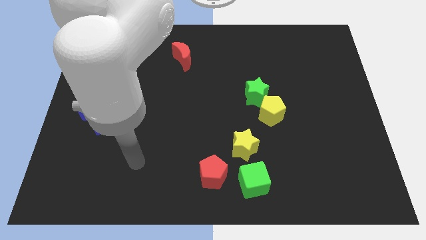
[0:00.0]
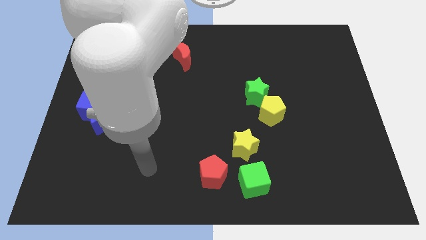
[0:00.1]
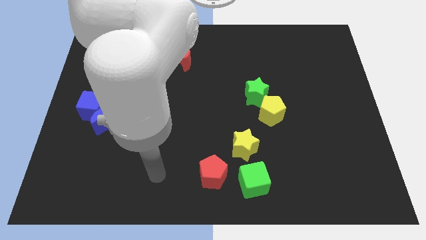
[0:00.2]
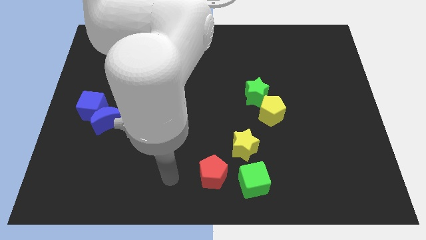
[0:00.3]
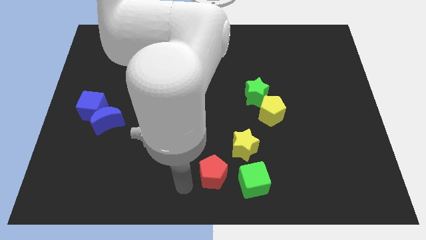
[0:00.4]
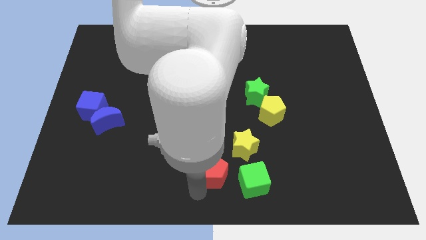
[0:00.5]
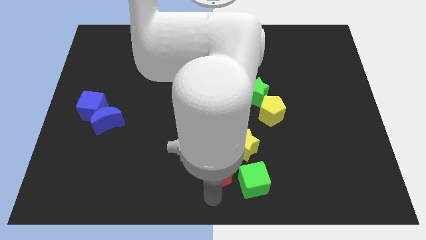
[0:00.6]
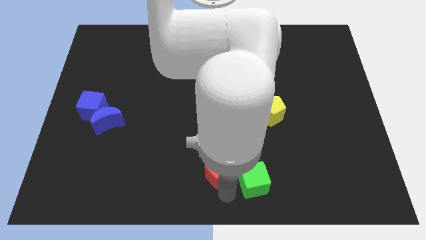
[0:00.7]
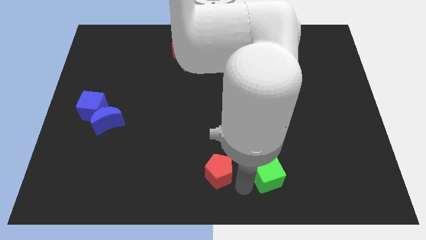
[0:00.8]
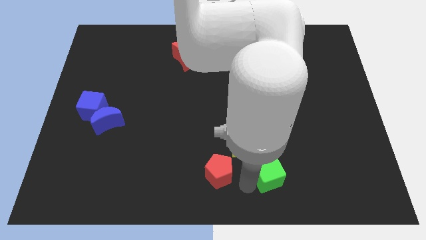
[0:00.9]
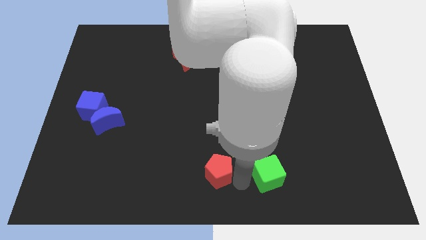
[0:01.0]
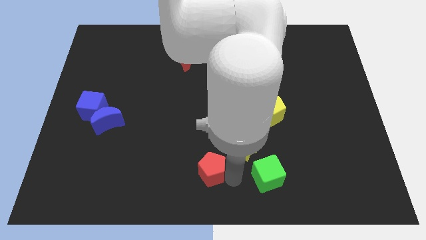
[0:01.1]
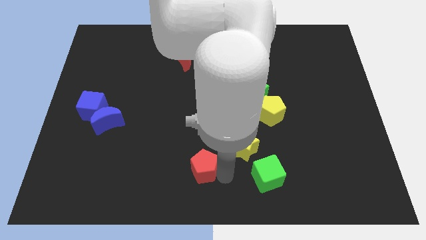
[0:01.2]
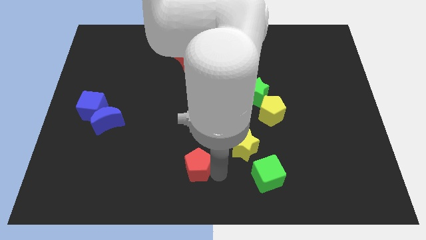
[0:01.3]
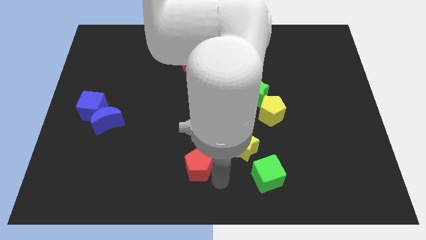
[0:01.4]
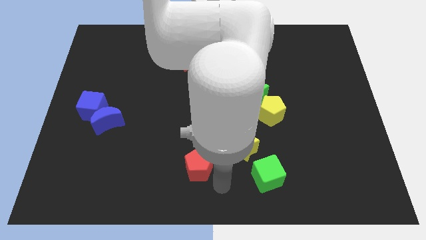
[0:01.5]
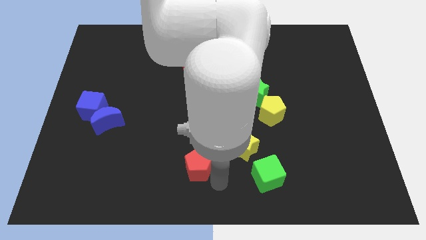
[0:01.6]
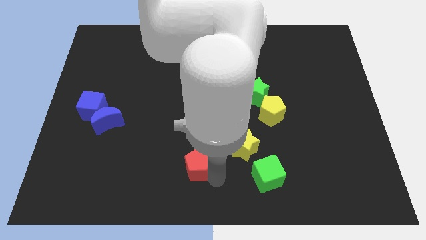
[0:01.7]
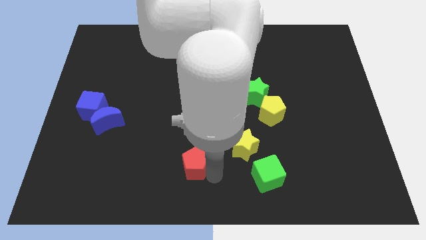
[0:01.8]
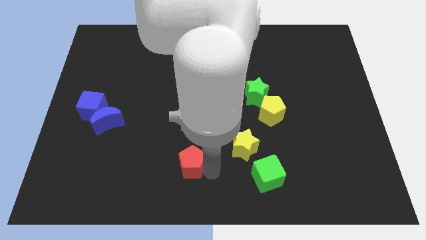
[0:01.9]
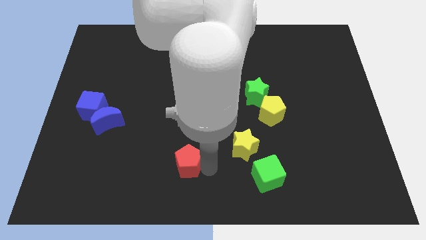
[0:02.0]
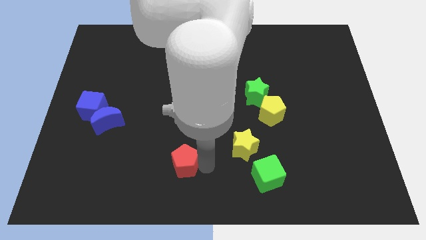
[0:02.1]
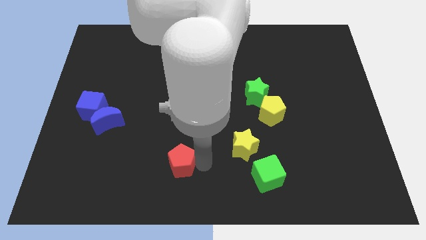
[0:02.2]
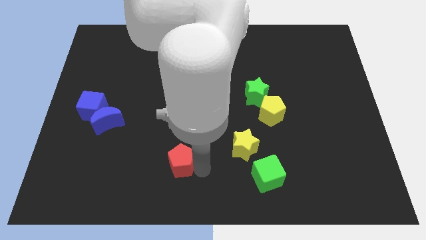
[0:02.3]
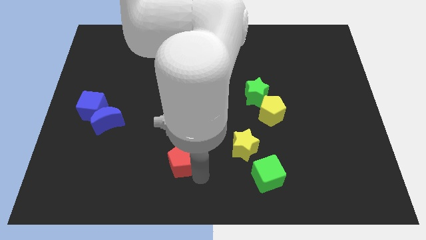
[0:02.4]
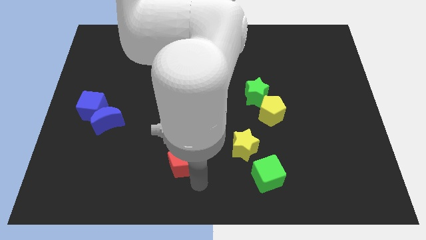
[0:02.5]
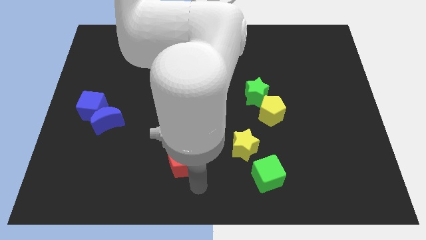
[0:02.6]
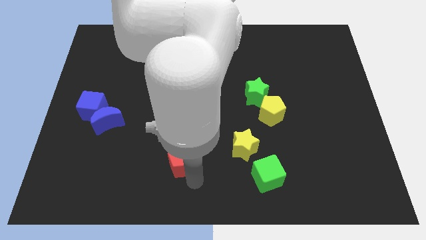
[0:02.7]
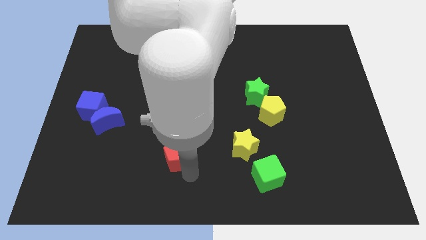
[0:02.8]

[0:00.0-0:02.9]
push the red pentagon a bit upwards and then to the left

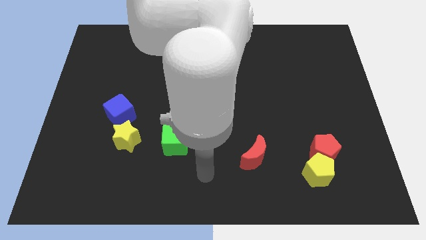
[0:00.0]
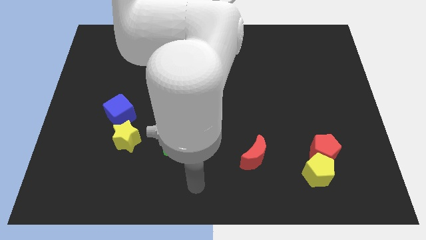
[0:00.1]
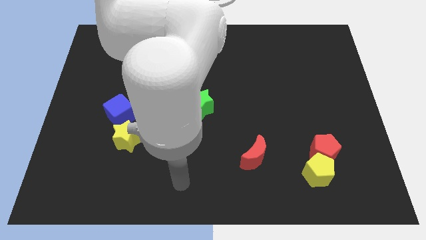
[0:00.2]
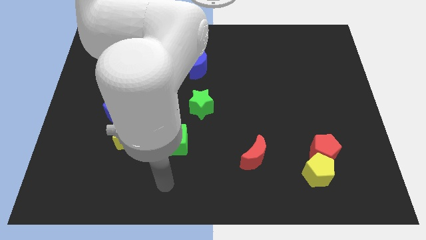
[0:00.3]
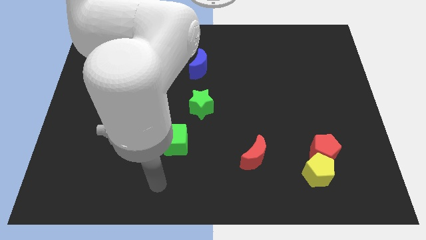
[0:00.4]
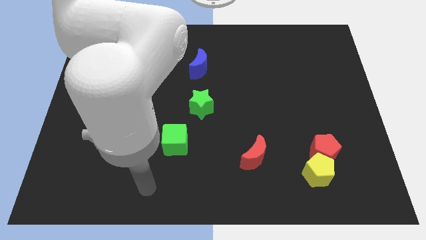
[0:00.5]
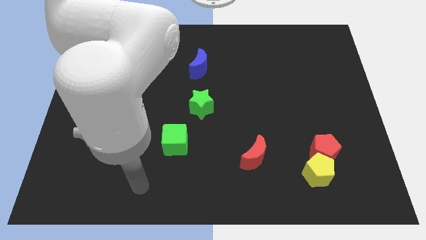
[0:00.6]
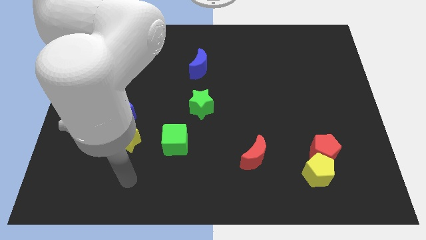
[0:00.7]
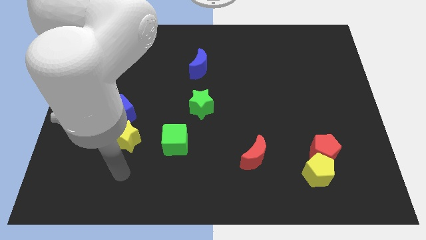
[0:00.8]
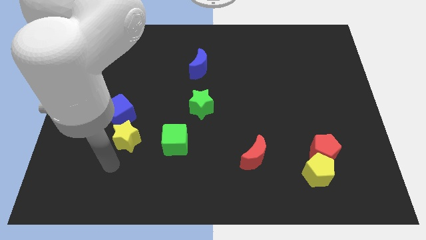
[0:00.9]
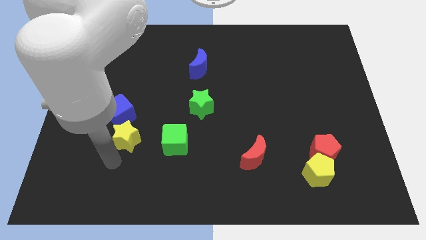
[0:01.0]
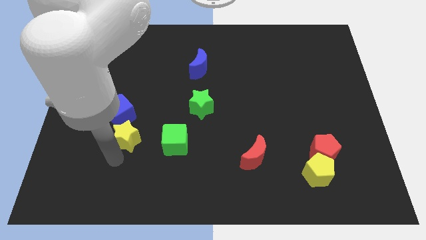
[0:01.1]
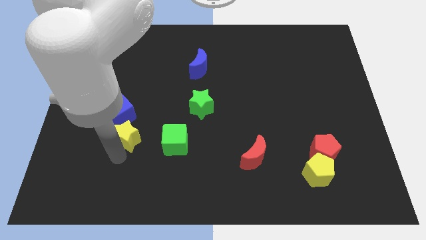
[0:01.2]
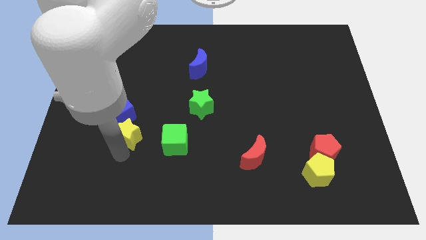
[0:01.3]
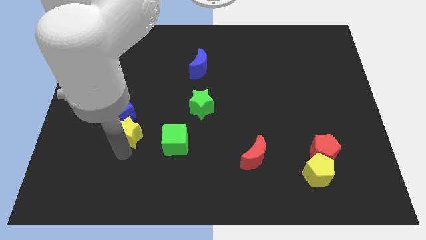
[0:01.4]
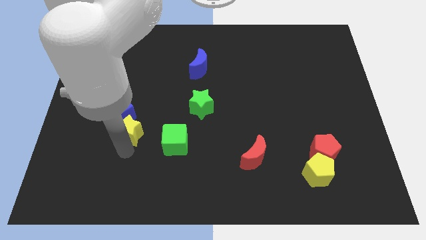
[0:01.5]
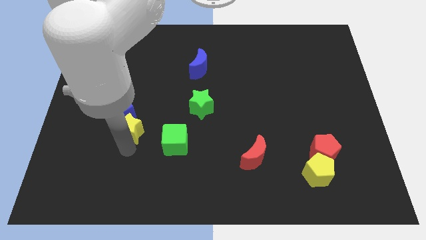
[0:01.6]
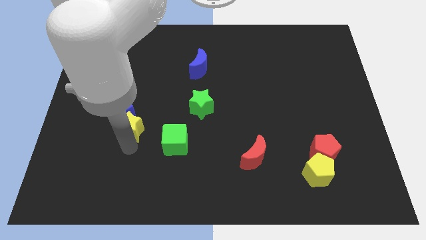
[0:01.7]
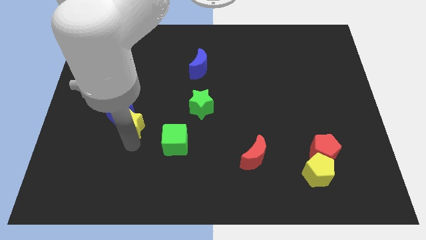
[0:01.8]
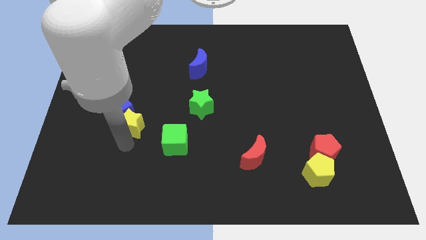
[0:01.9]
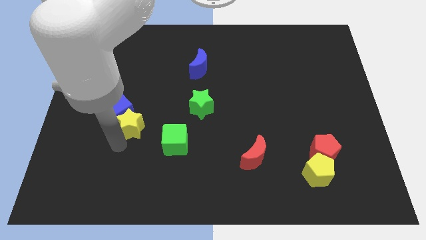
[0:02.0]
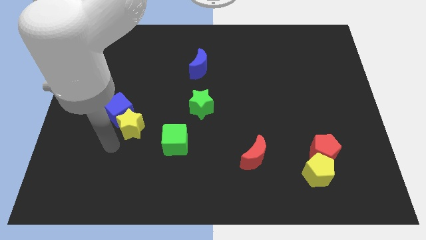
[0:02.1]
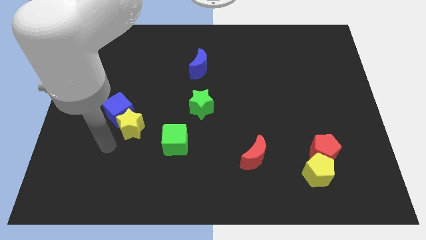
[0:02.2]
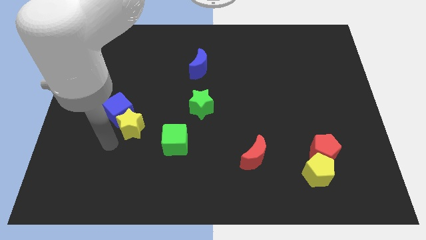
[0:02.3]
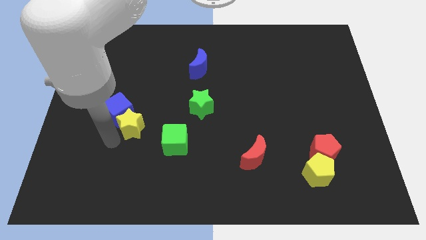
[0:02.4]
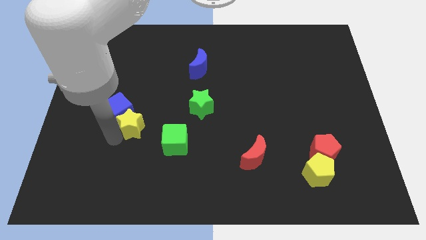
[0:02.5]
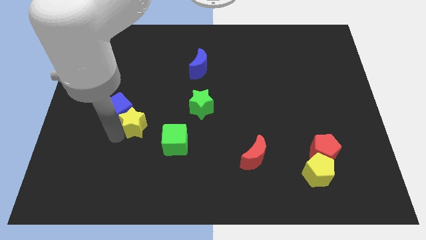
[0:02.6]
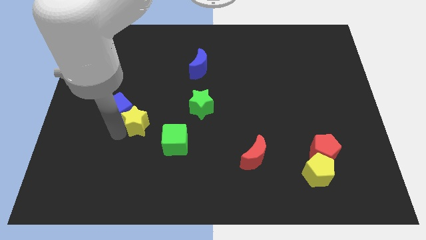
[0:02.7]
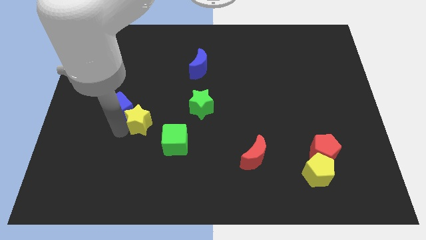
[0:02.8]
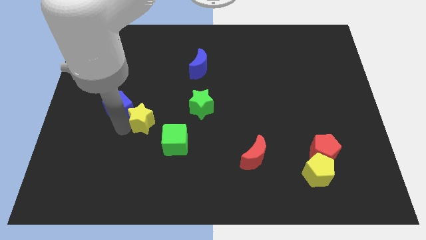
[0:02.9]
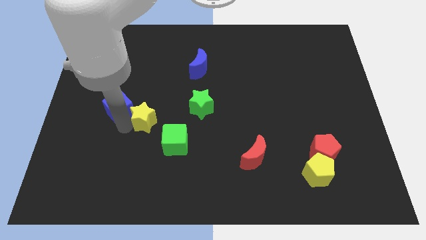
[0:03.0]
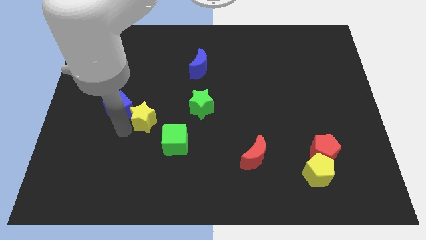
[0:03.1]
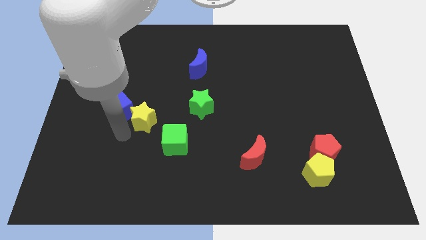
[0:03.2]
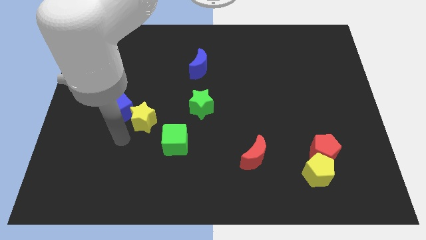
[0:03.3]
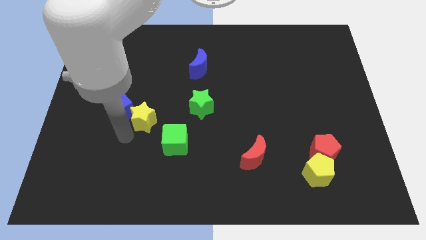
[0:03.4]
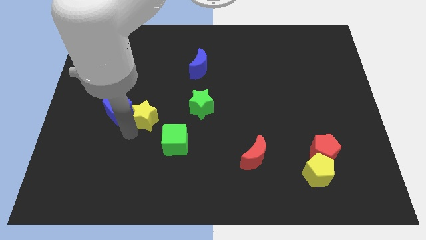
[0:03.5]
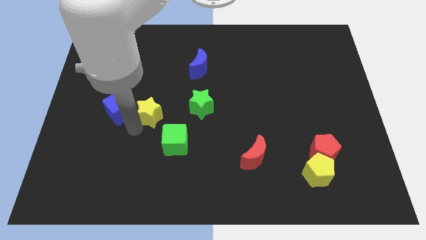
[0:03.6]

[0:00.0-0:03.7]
push the yellow star up and right a little bit

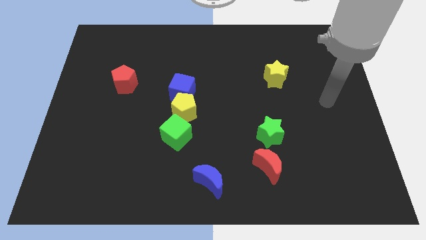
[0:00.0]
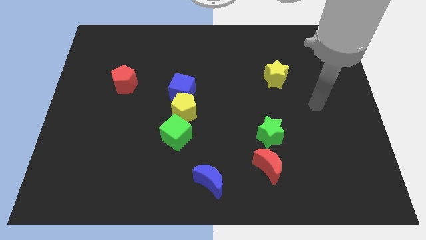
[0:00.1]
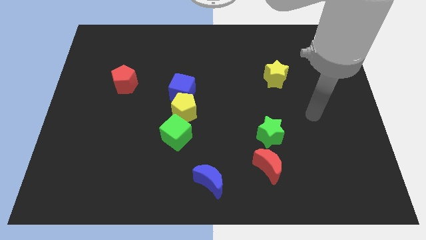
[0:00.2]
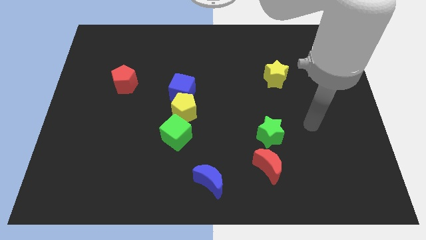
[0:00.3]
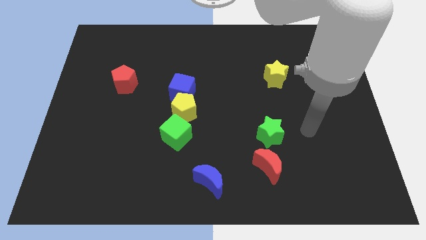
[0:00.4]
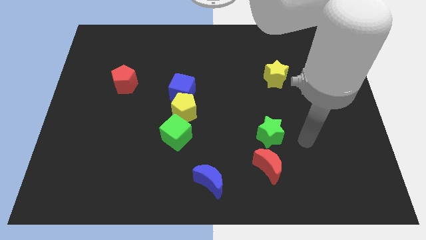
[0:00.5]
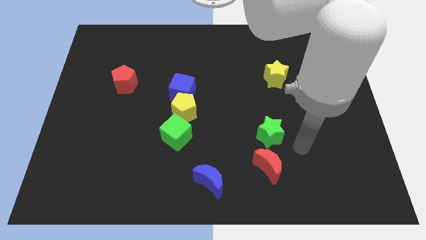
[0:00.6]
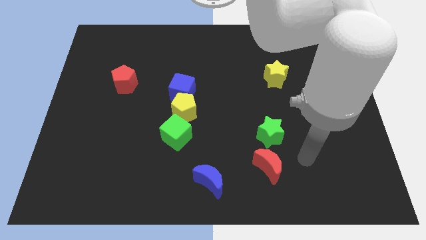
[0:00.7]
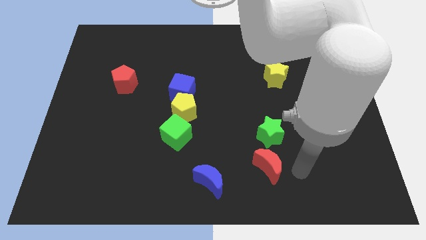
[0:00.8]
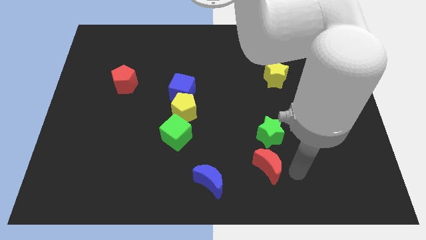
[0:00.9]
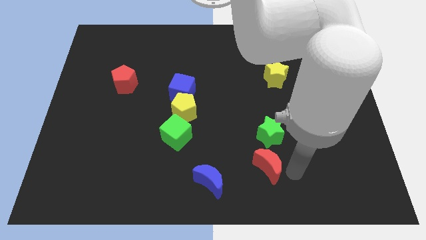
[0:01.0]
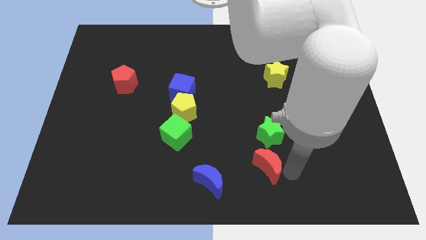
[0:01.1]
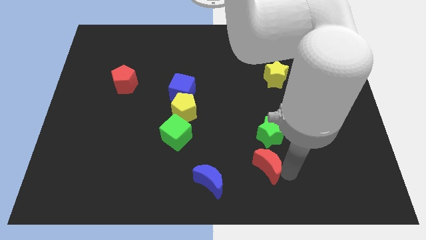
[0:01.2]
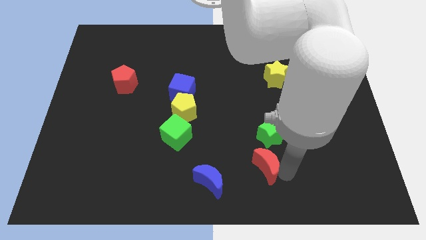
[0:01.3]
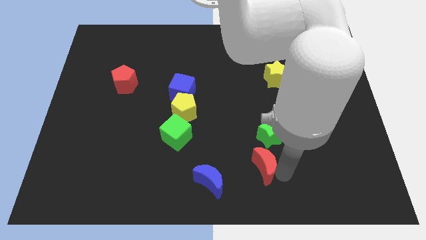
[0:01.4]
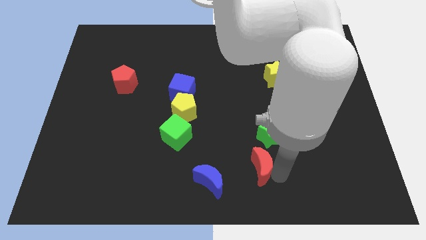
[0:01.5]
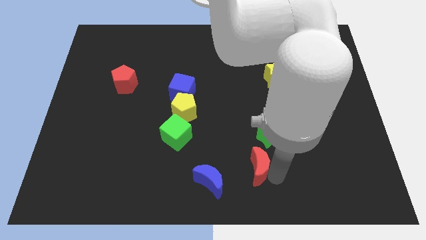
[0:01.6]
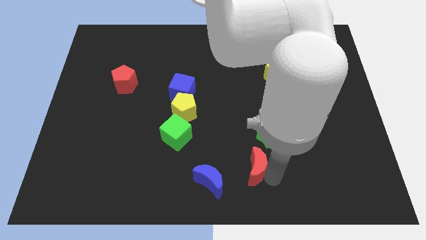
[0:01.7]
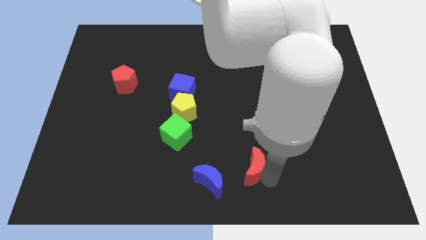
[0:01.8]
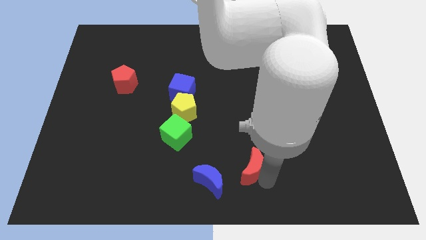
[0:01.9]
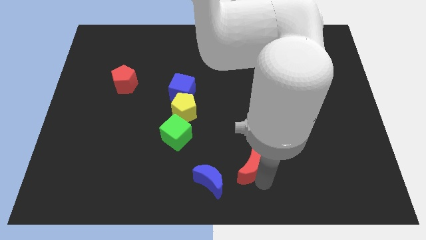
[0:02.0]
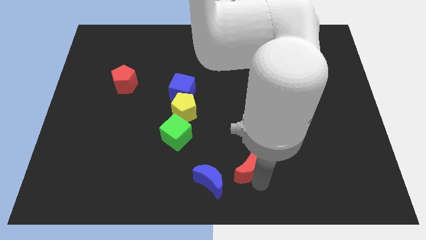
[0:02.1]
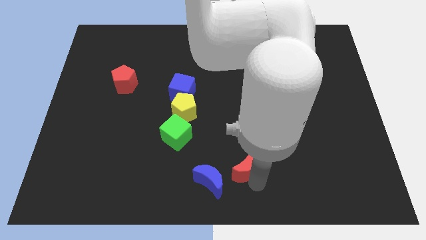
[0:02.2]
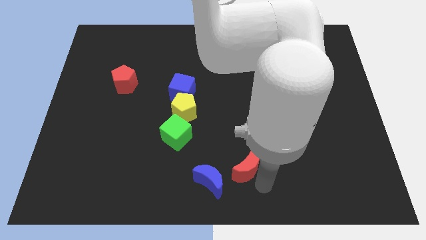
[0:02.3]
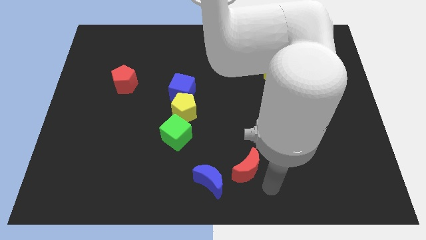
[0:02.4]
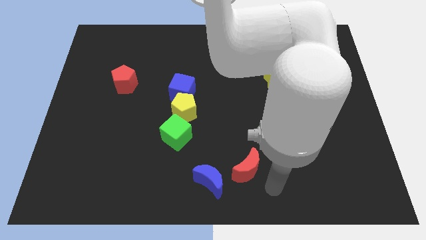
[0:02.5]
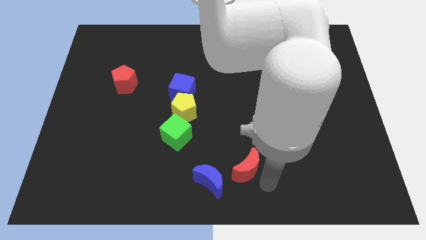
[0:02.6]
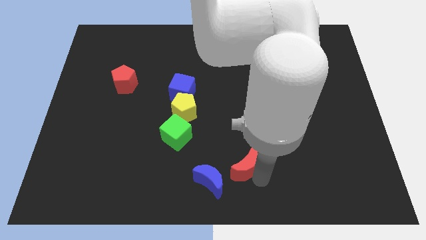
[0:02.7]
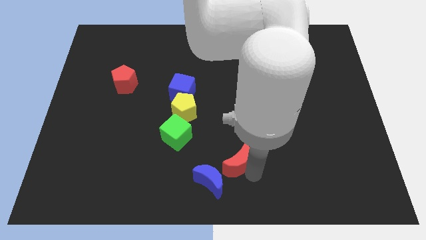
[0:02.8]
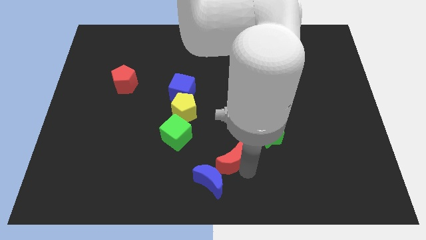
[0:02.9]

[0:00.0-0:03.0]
move the red moon somewhat to the left
